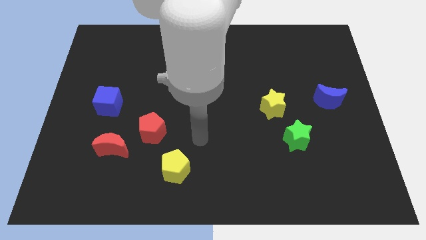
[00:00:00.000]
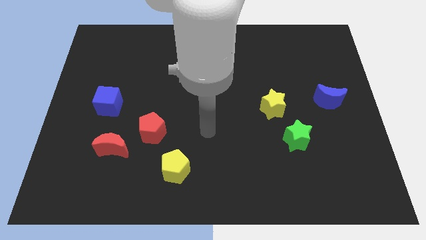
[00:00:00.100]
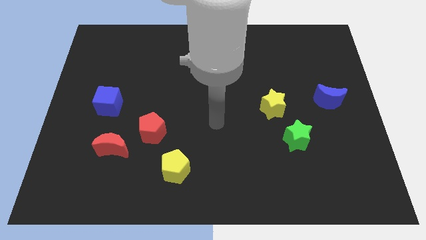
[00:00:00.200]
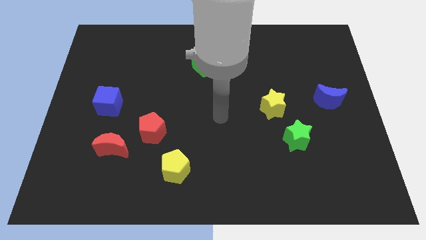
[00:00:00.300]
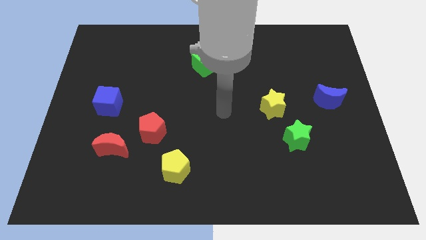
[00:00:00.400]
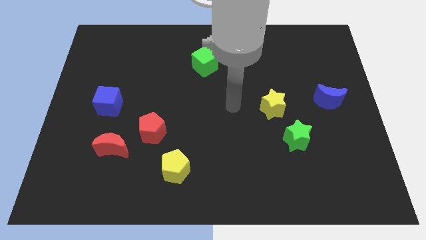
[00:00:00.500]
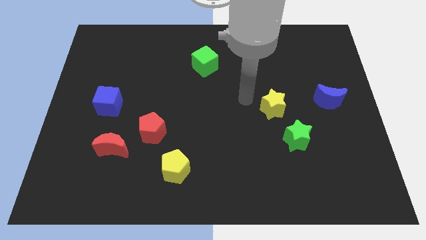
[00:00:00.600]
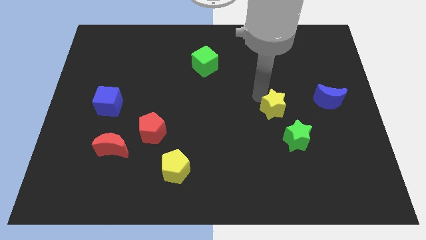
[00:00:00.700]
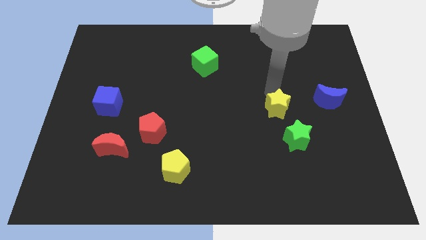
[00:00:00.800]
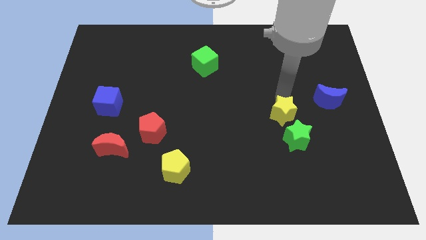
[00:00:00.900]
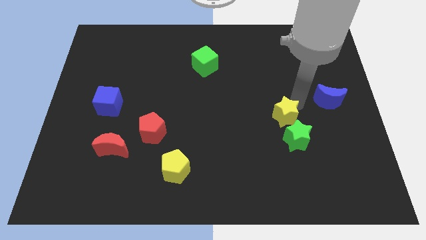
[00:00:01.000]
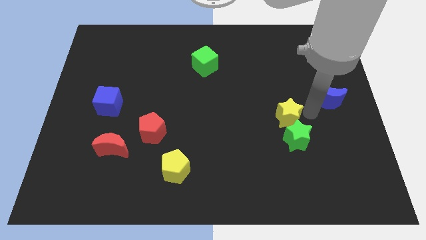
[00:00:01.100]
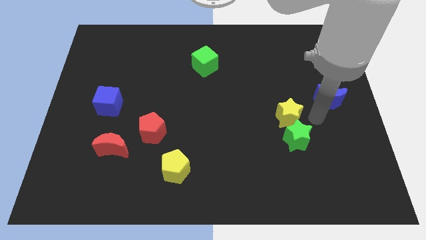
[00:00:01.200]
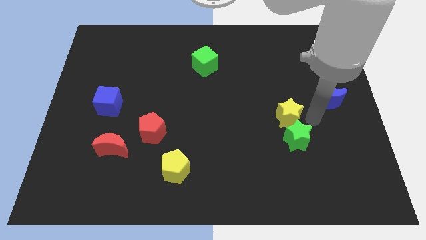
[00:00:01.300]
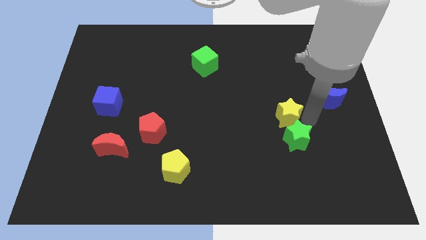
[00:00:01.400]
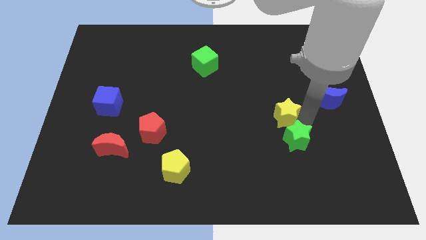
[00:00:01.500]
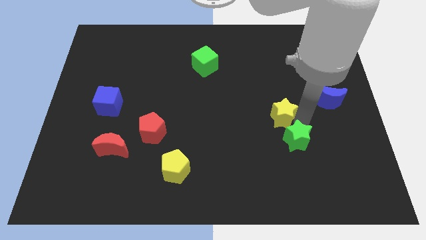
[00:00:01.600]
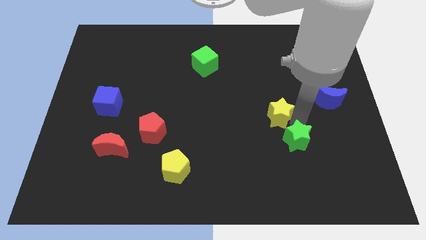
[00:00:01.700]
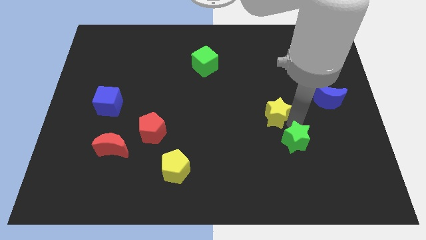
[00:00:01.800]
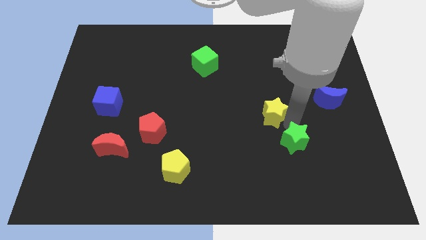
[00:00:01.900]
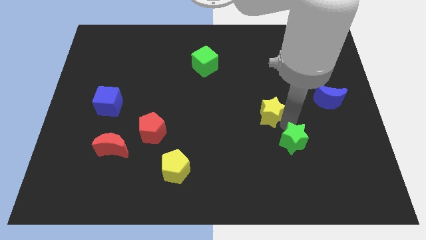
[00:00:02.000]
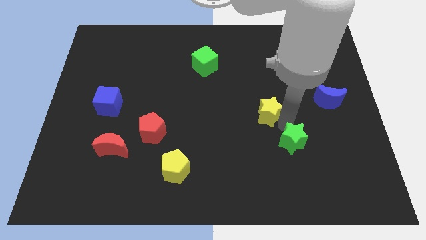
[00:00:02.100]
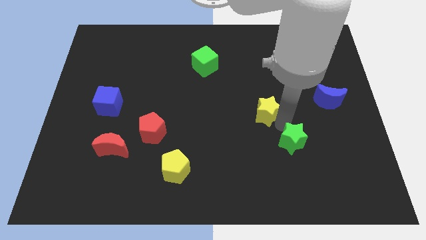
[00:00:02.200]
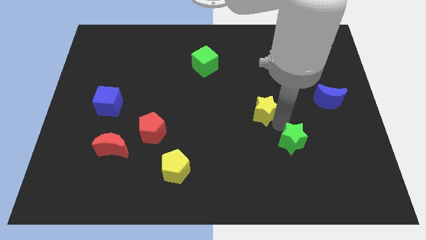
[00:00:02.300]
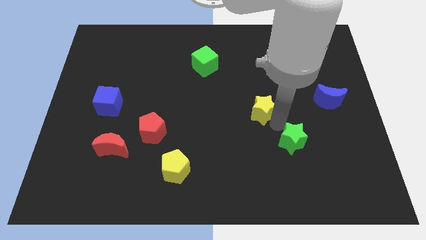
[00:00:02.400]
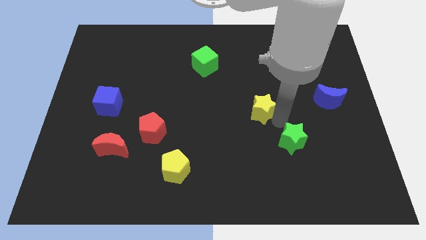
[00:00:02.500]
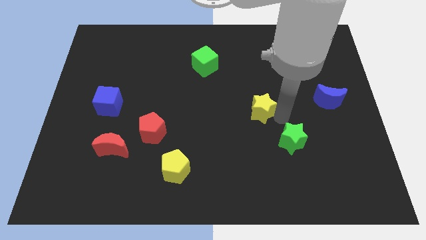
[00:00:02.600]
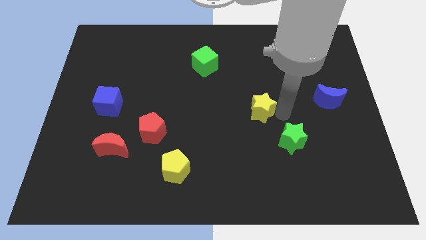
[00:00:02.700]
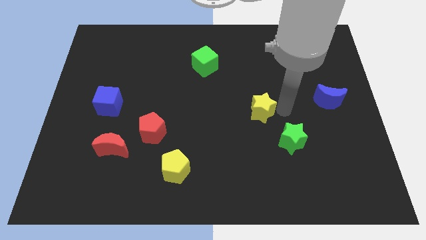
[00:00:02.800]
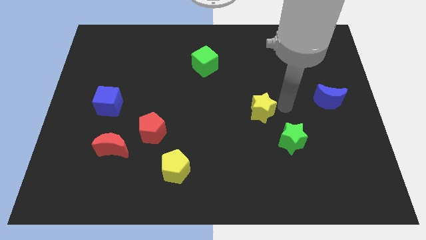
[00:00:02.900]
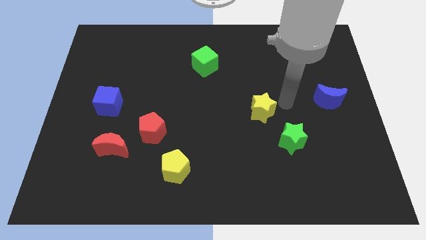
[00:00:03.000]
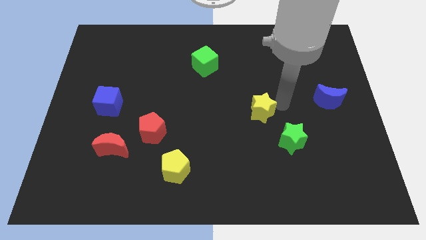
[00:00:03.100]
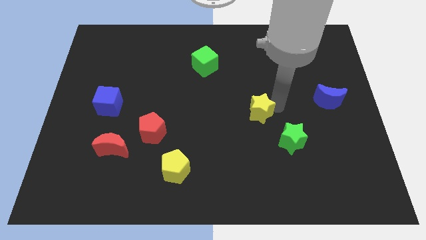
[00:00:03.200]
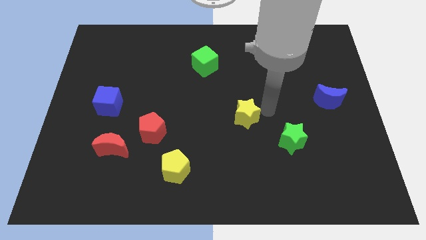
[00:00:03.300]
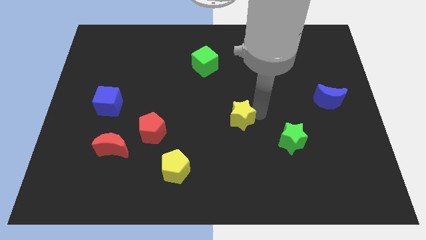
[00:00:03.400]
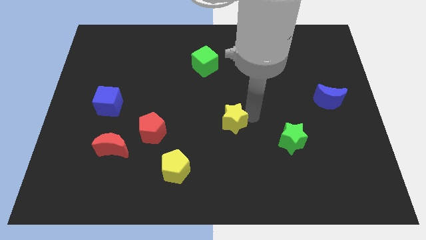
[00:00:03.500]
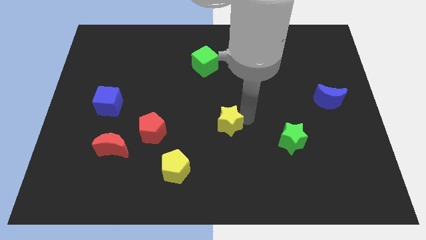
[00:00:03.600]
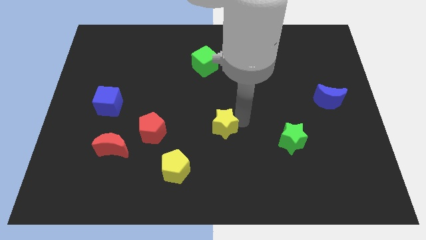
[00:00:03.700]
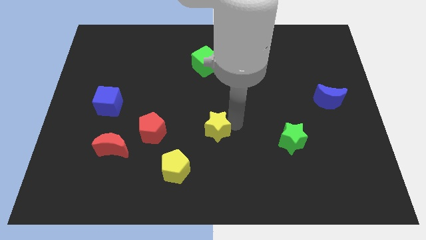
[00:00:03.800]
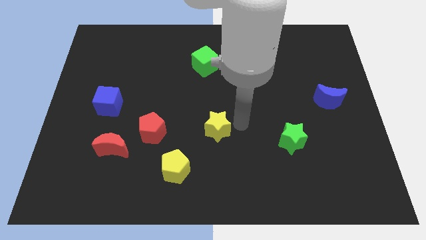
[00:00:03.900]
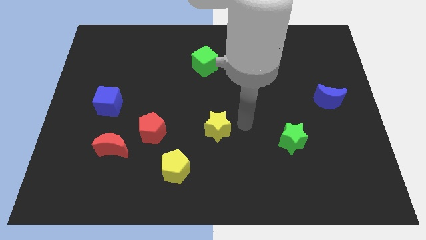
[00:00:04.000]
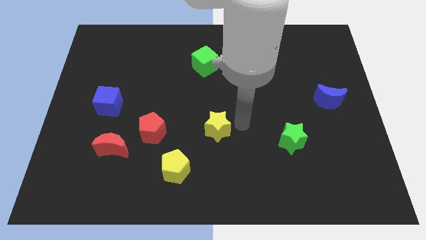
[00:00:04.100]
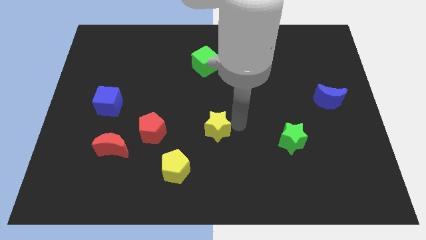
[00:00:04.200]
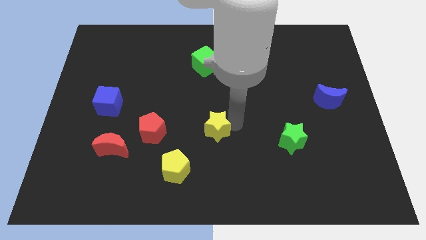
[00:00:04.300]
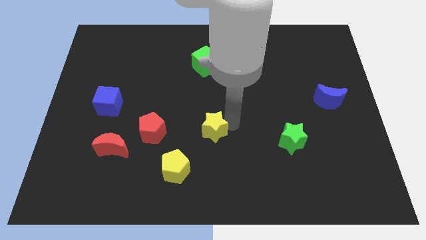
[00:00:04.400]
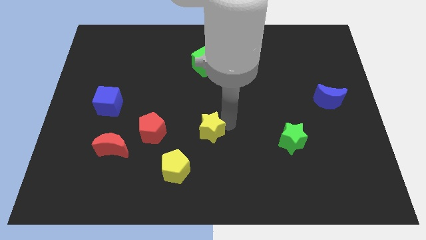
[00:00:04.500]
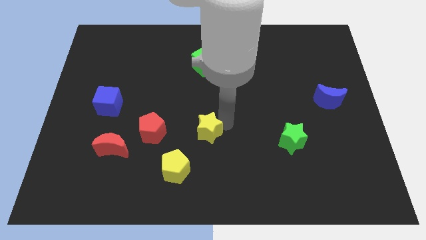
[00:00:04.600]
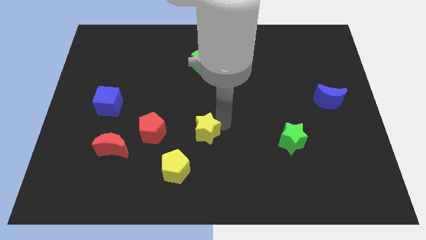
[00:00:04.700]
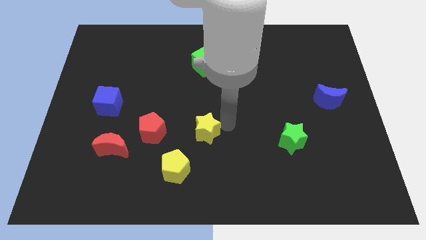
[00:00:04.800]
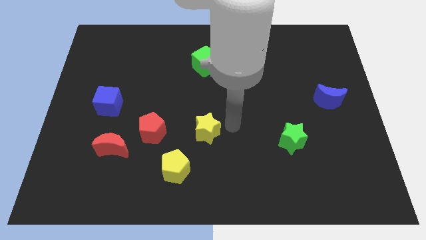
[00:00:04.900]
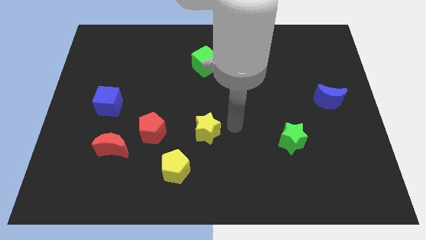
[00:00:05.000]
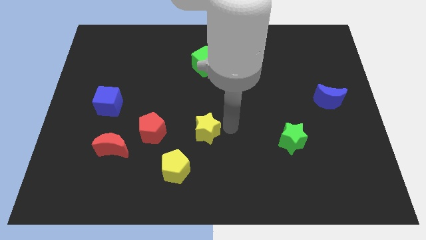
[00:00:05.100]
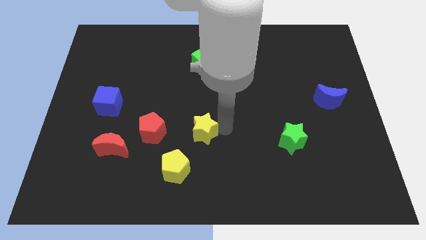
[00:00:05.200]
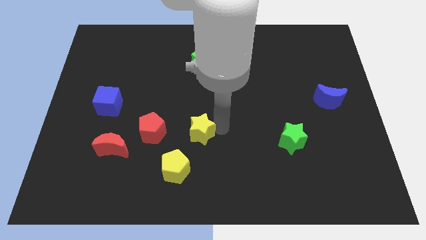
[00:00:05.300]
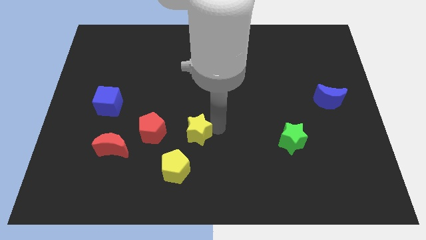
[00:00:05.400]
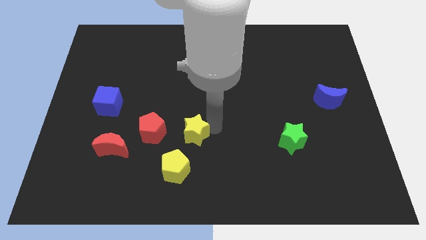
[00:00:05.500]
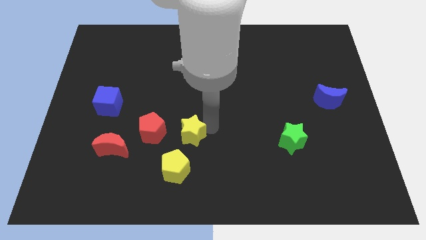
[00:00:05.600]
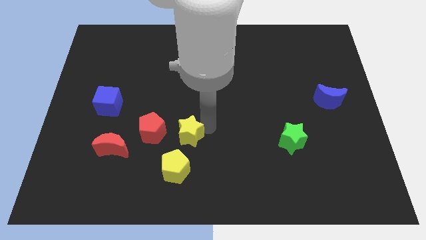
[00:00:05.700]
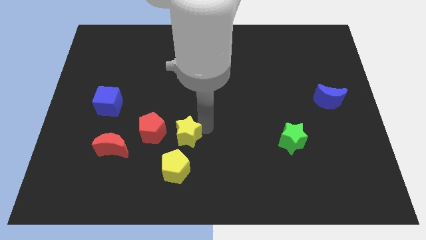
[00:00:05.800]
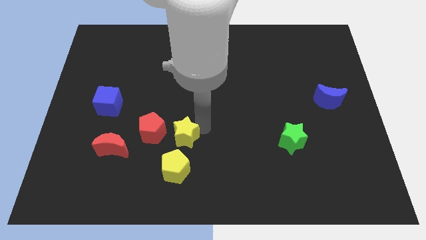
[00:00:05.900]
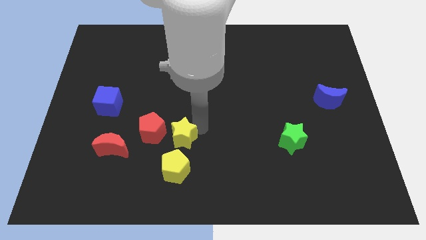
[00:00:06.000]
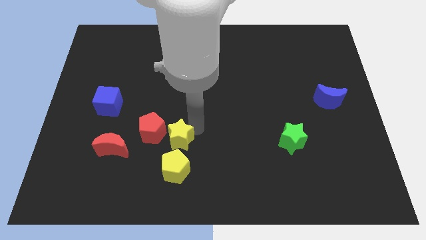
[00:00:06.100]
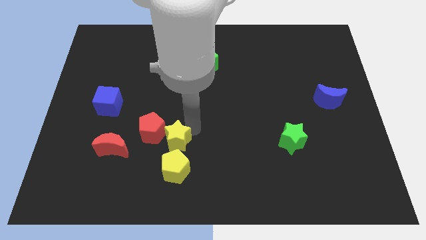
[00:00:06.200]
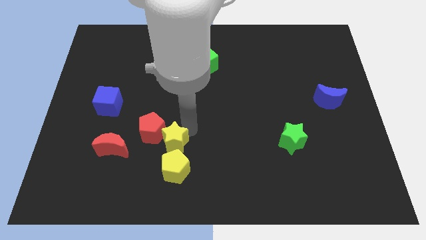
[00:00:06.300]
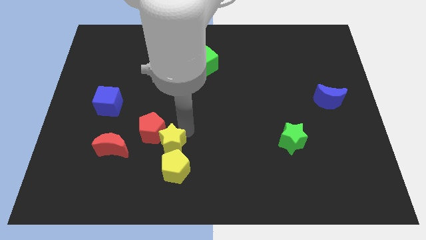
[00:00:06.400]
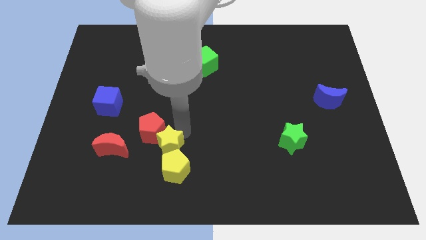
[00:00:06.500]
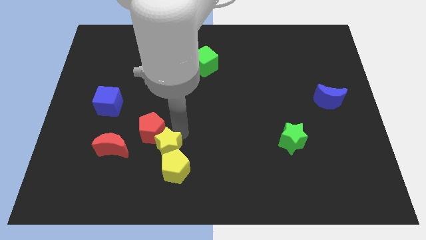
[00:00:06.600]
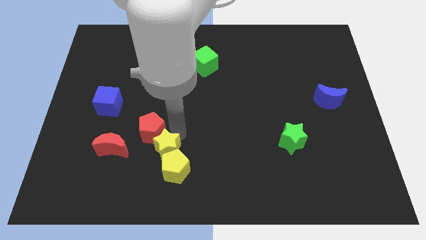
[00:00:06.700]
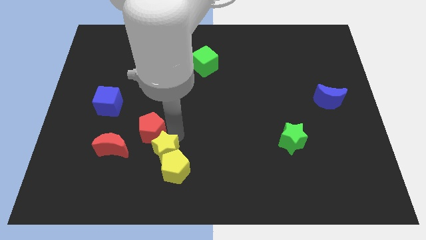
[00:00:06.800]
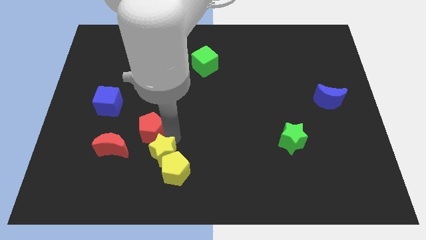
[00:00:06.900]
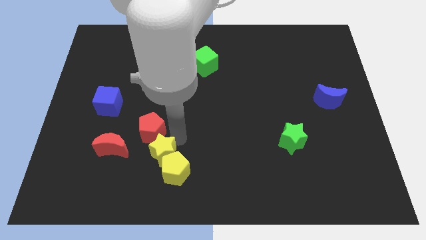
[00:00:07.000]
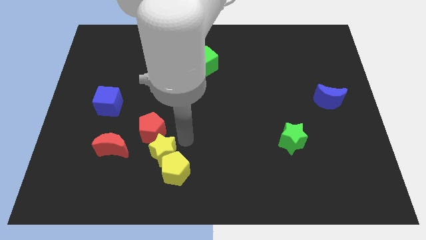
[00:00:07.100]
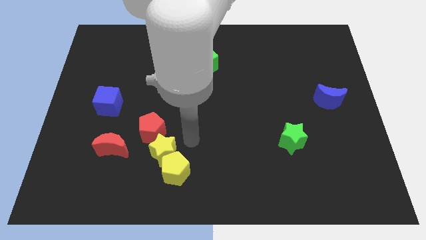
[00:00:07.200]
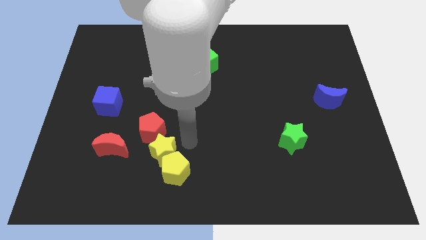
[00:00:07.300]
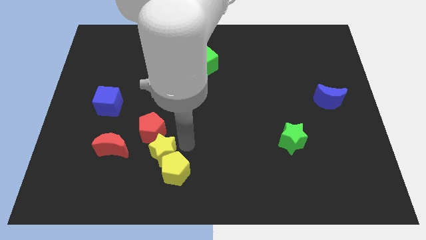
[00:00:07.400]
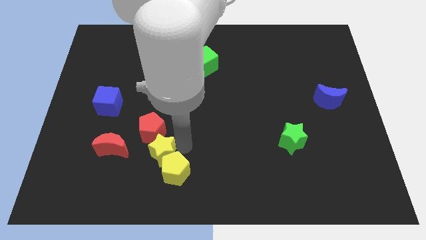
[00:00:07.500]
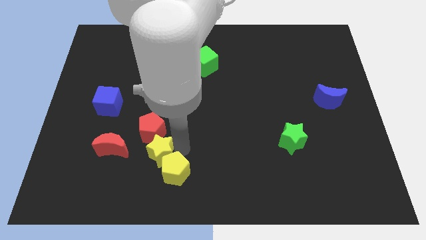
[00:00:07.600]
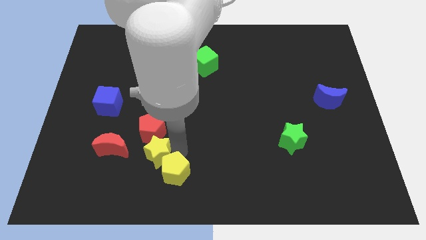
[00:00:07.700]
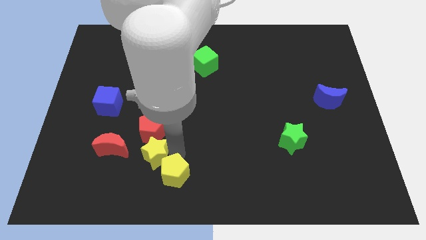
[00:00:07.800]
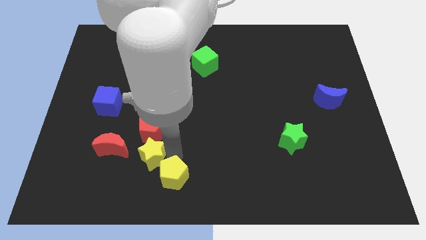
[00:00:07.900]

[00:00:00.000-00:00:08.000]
push the yellow star diagonally down and to the right of the red moon
